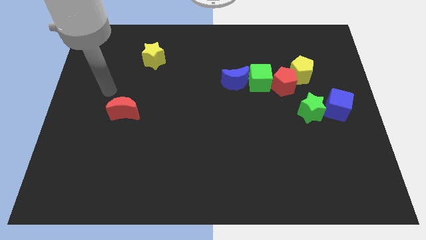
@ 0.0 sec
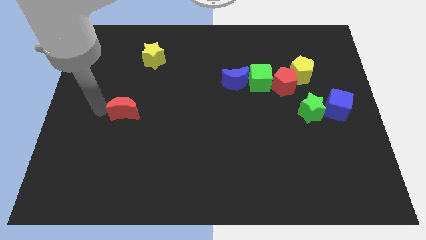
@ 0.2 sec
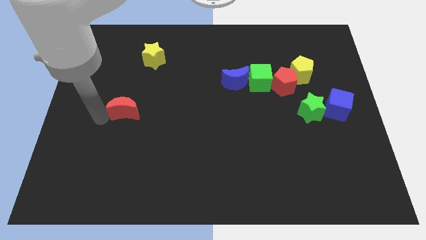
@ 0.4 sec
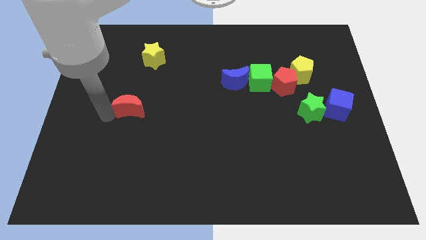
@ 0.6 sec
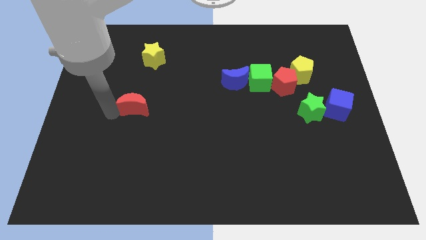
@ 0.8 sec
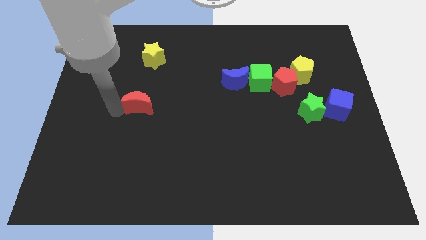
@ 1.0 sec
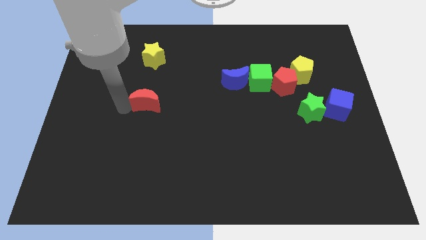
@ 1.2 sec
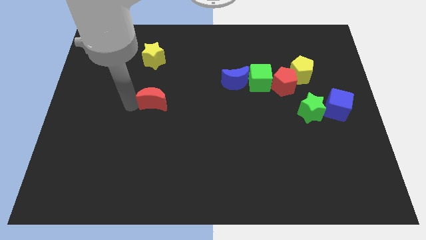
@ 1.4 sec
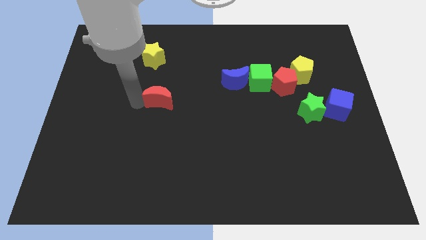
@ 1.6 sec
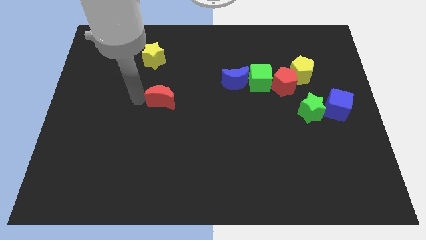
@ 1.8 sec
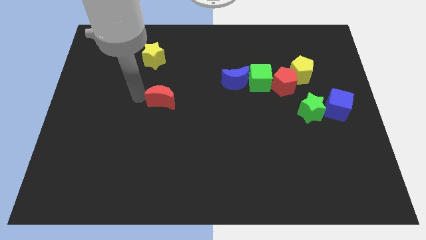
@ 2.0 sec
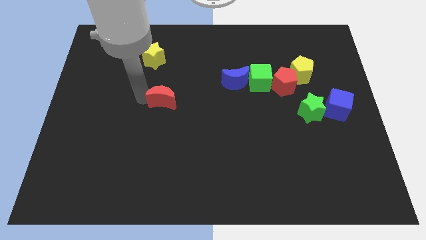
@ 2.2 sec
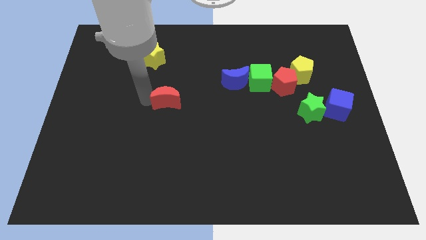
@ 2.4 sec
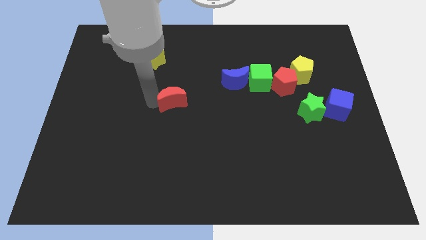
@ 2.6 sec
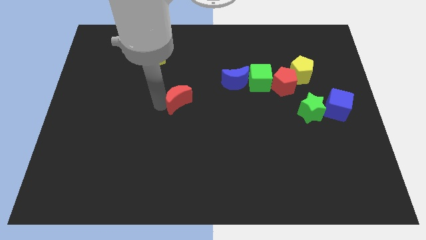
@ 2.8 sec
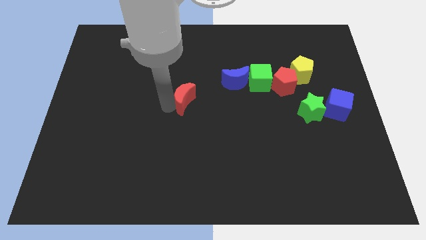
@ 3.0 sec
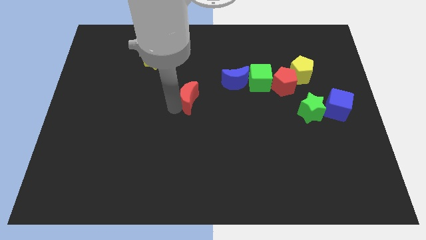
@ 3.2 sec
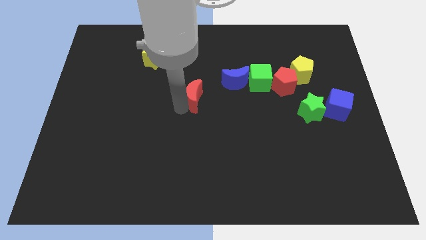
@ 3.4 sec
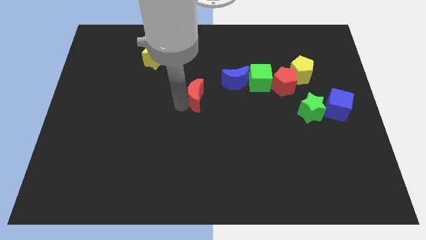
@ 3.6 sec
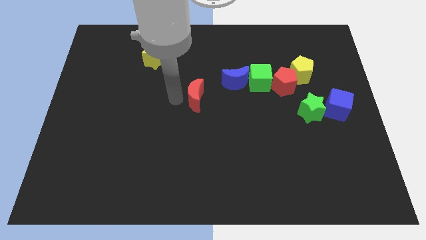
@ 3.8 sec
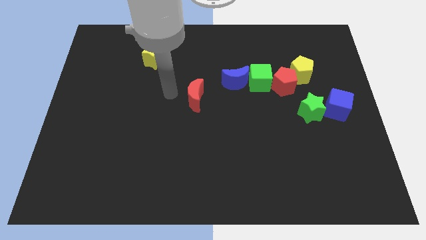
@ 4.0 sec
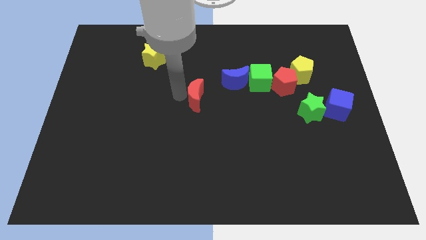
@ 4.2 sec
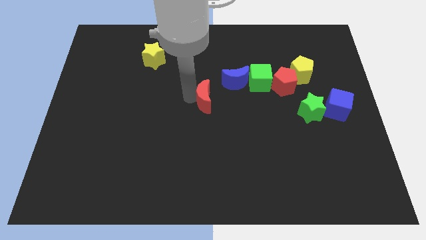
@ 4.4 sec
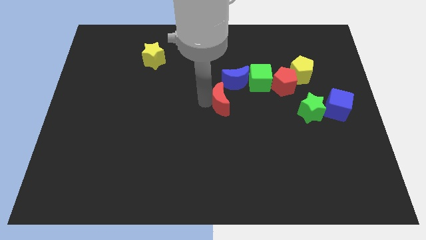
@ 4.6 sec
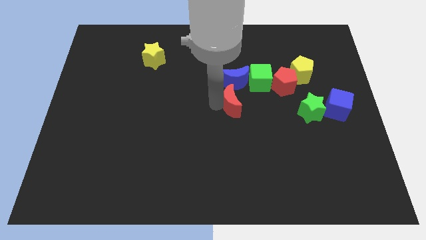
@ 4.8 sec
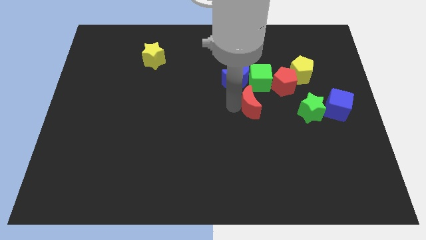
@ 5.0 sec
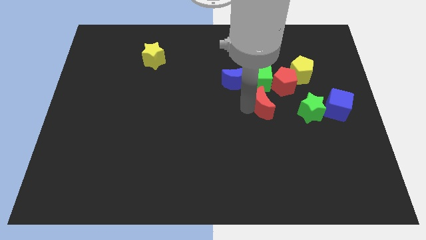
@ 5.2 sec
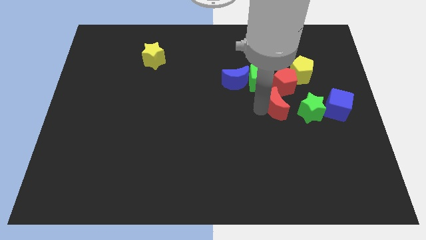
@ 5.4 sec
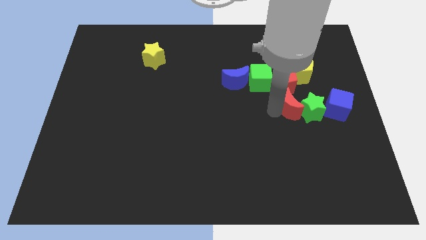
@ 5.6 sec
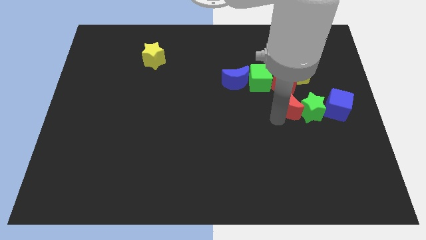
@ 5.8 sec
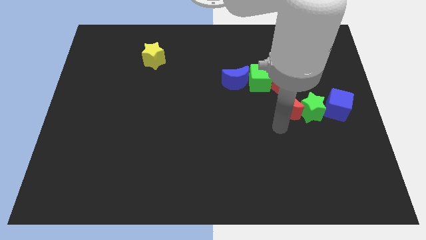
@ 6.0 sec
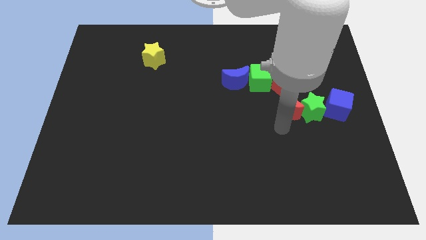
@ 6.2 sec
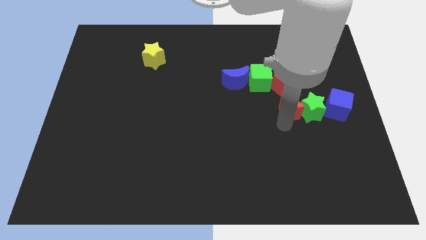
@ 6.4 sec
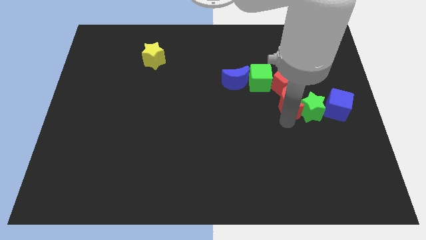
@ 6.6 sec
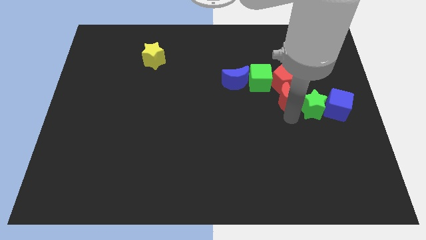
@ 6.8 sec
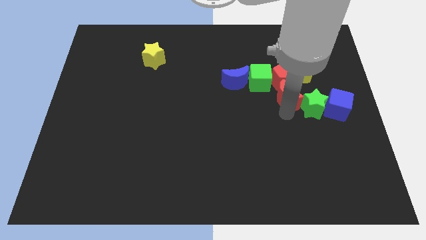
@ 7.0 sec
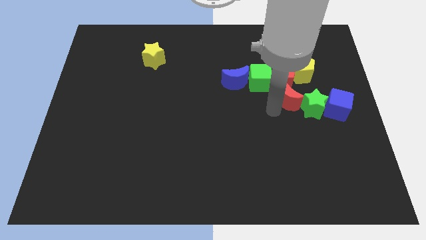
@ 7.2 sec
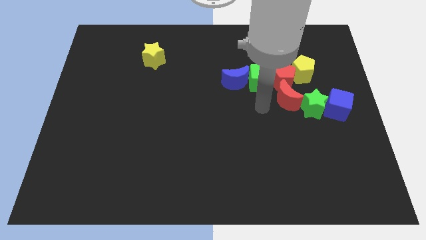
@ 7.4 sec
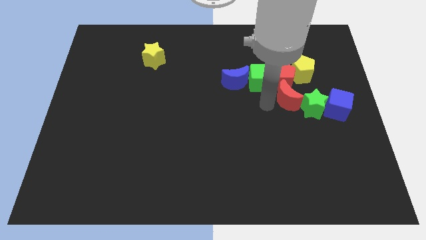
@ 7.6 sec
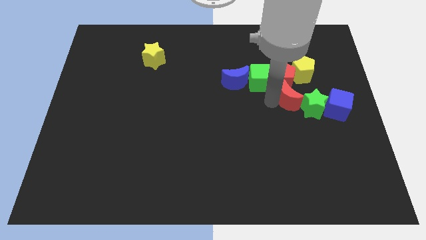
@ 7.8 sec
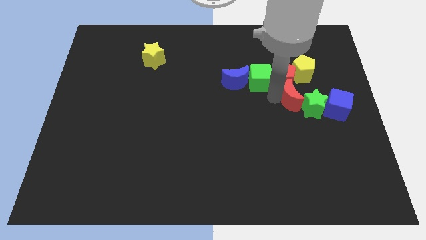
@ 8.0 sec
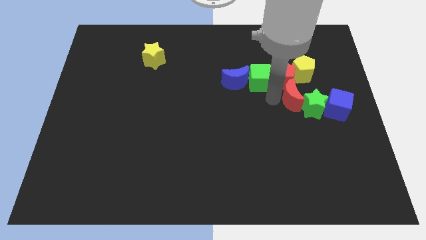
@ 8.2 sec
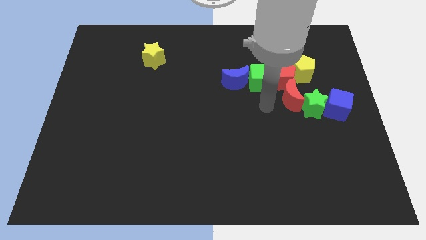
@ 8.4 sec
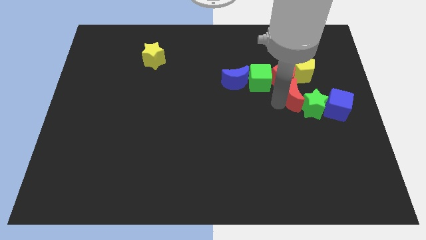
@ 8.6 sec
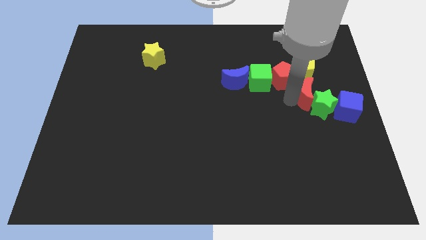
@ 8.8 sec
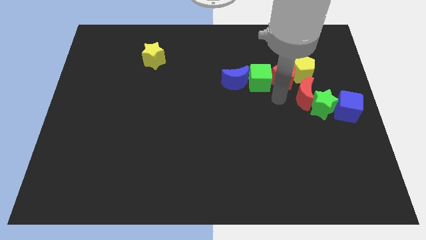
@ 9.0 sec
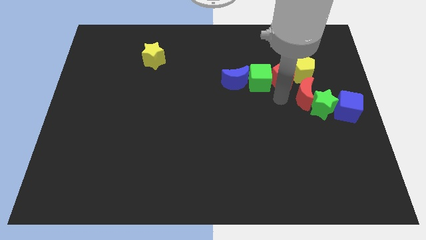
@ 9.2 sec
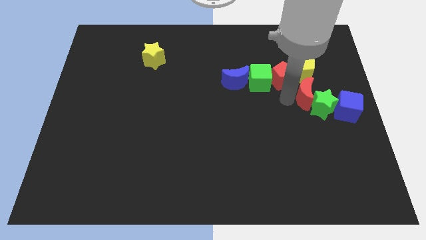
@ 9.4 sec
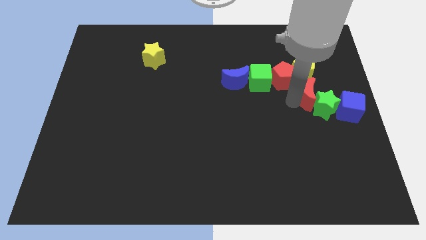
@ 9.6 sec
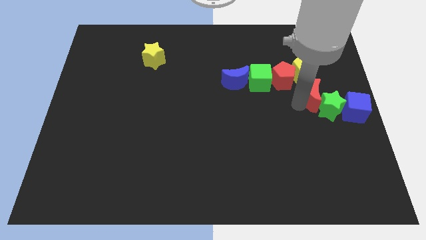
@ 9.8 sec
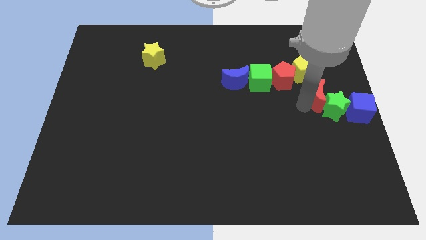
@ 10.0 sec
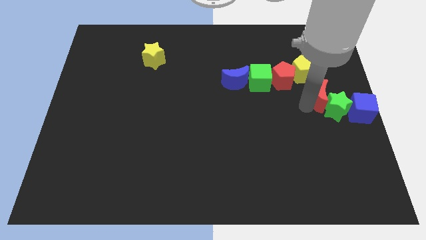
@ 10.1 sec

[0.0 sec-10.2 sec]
put the red moon to the right side of the board

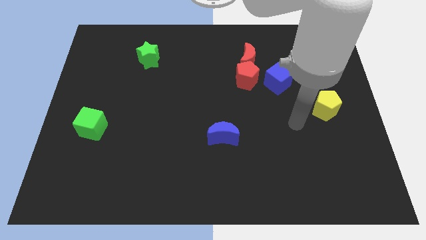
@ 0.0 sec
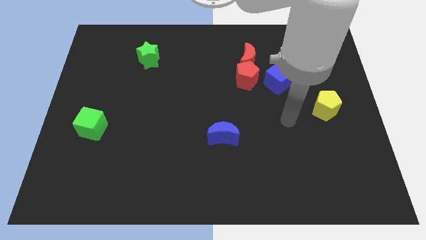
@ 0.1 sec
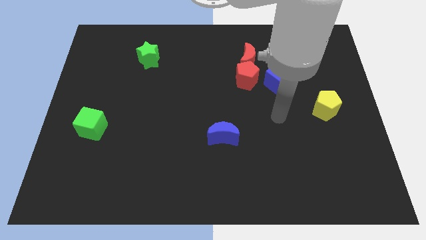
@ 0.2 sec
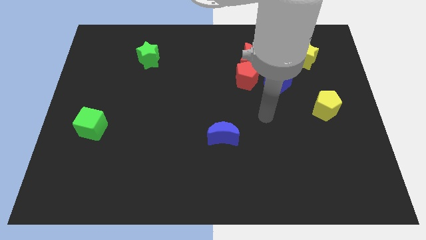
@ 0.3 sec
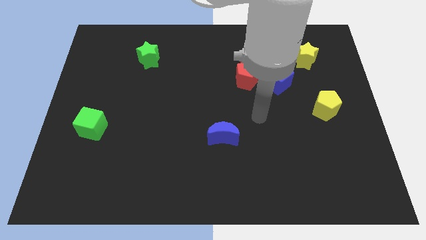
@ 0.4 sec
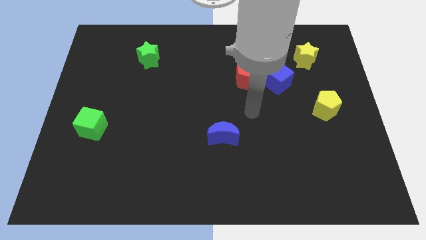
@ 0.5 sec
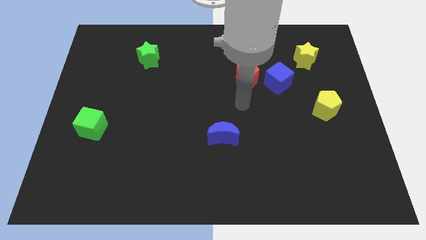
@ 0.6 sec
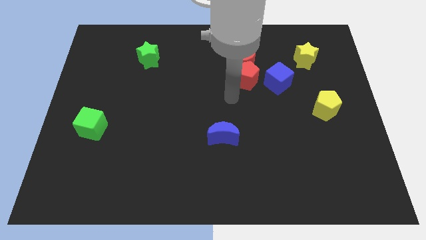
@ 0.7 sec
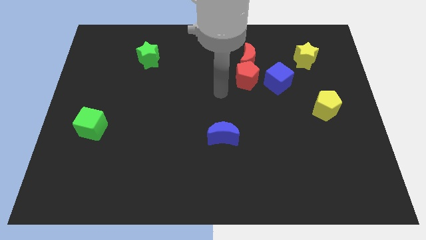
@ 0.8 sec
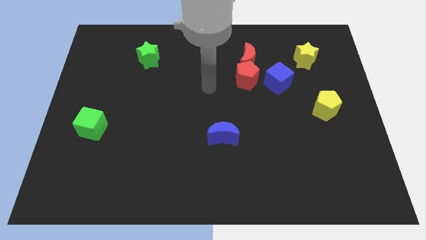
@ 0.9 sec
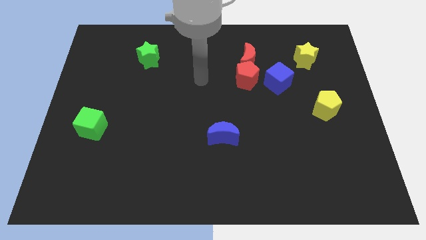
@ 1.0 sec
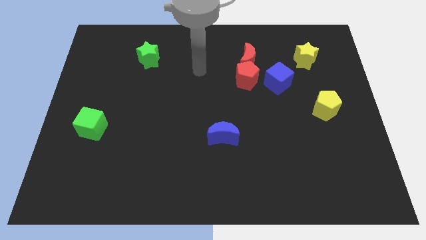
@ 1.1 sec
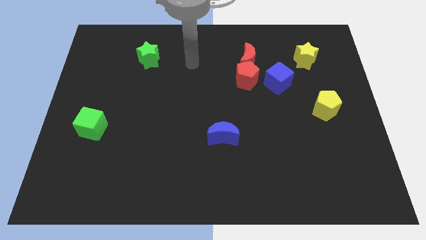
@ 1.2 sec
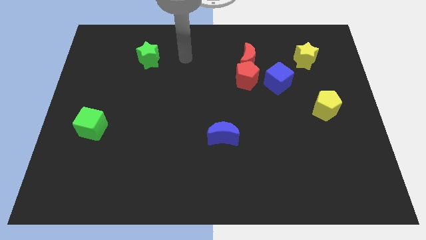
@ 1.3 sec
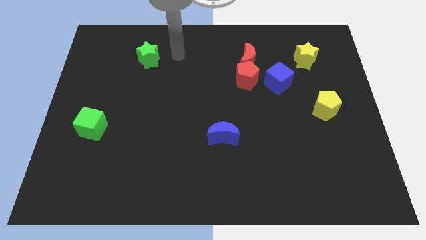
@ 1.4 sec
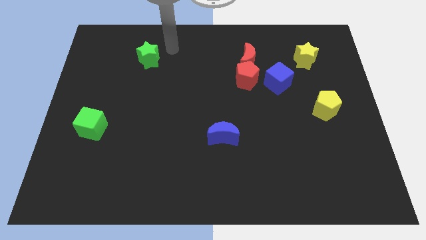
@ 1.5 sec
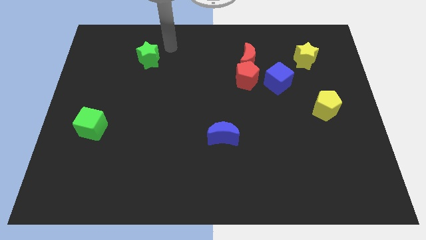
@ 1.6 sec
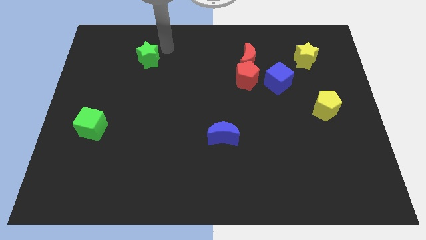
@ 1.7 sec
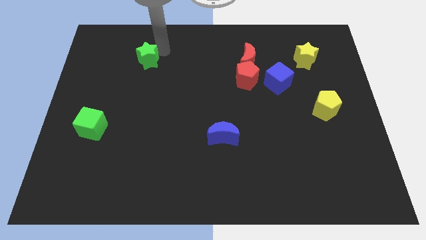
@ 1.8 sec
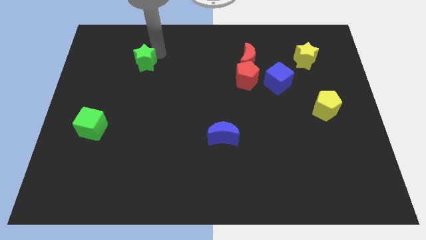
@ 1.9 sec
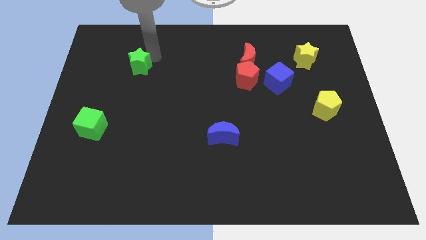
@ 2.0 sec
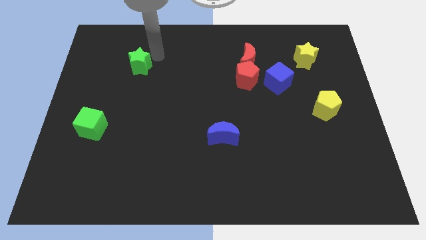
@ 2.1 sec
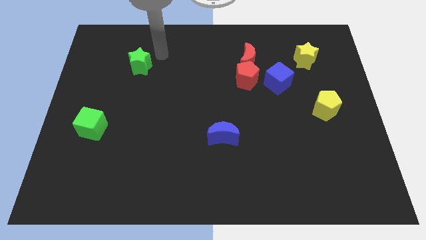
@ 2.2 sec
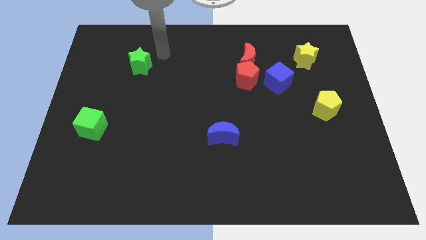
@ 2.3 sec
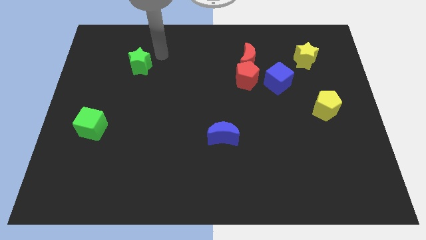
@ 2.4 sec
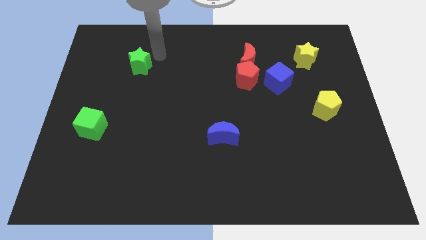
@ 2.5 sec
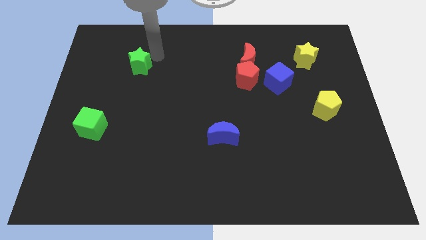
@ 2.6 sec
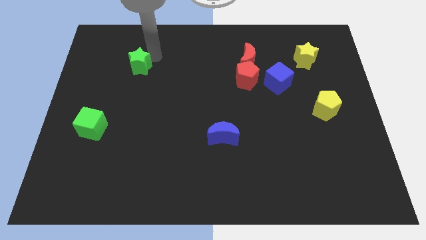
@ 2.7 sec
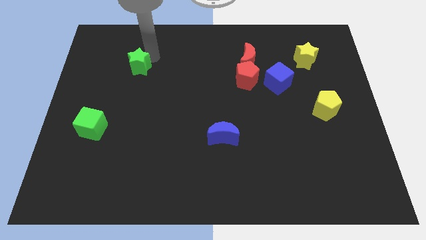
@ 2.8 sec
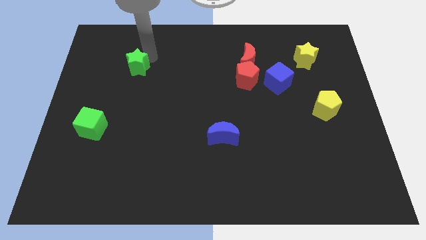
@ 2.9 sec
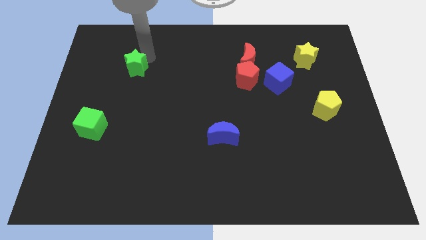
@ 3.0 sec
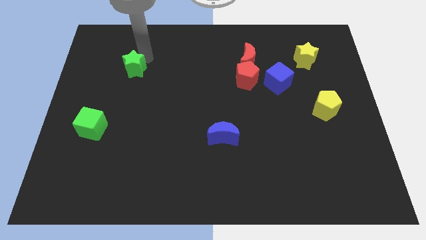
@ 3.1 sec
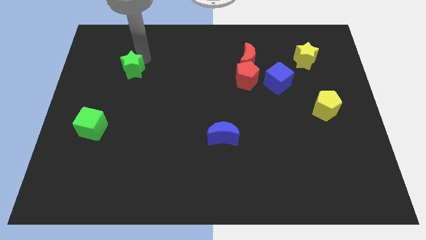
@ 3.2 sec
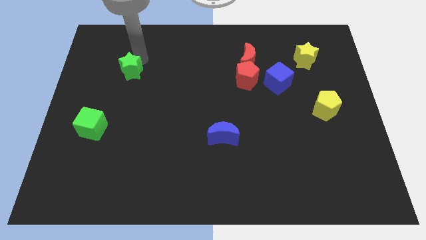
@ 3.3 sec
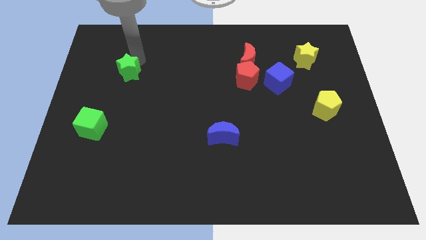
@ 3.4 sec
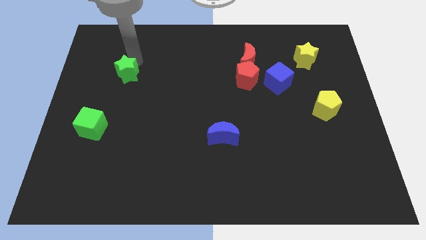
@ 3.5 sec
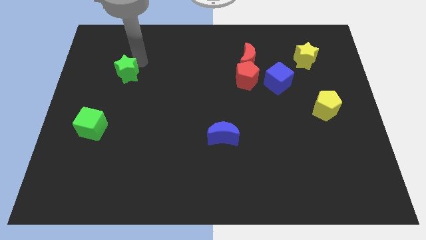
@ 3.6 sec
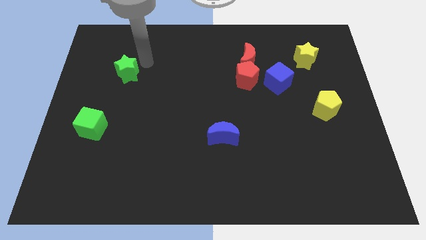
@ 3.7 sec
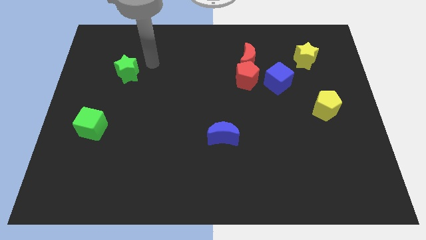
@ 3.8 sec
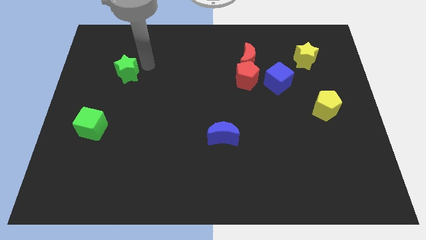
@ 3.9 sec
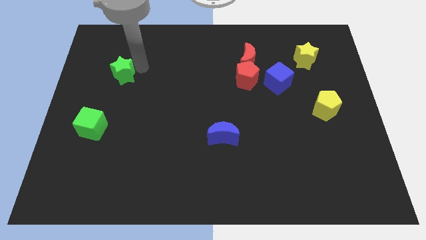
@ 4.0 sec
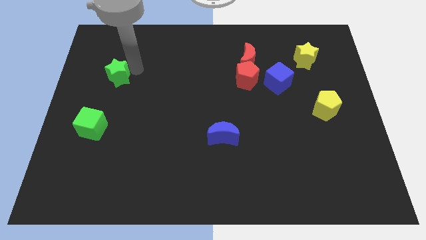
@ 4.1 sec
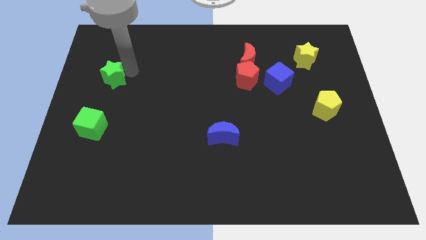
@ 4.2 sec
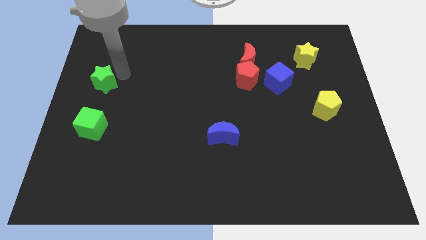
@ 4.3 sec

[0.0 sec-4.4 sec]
push the green star to the left side of the board
